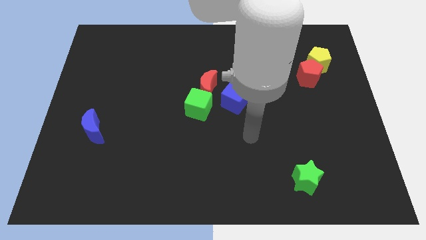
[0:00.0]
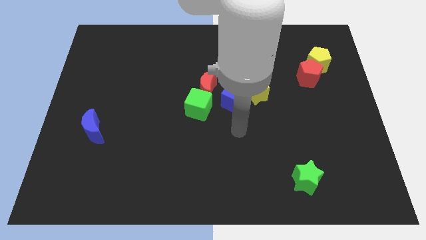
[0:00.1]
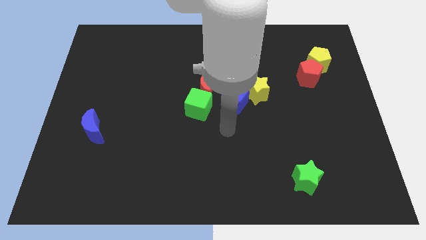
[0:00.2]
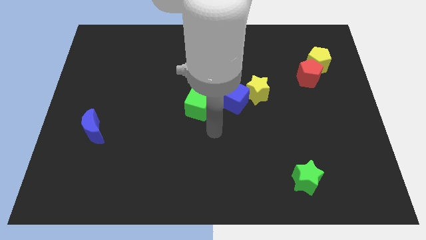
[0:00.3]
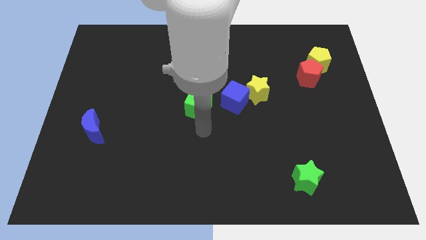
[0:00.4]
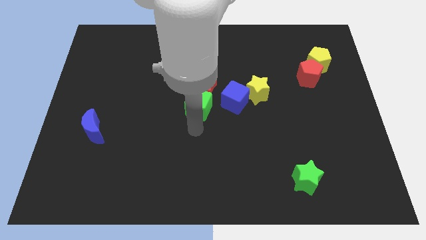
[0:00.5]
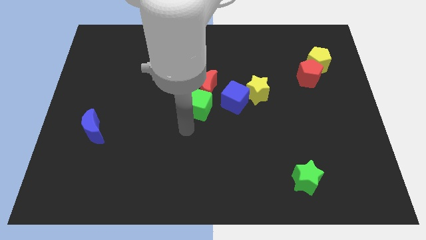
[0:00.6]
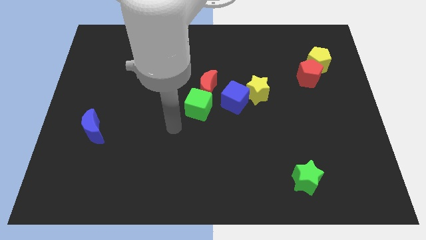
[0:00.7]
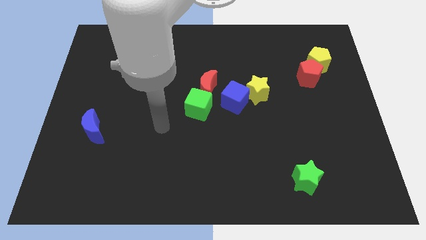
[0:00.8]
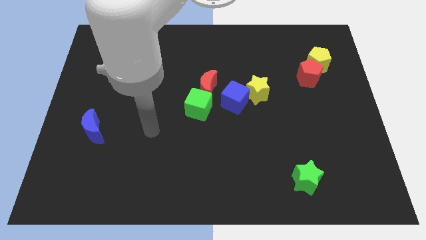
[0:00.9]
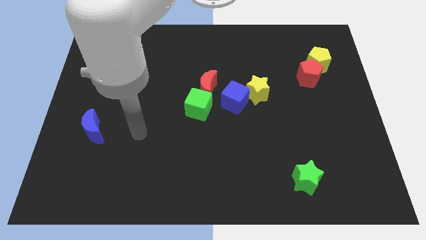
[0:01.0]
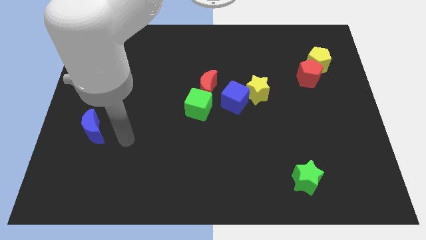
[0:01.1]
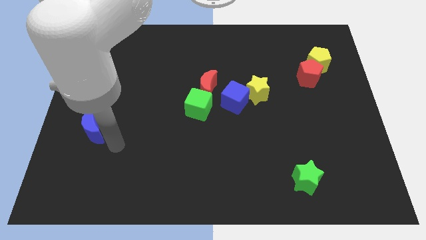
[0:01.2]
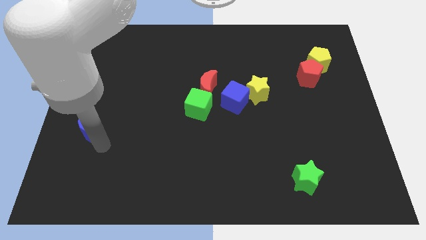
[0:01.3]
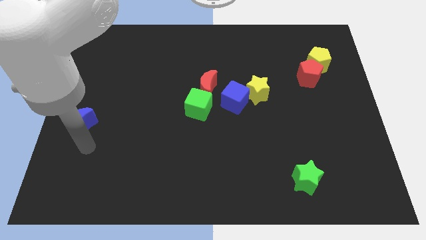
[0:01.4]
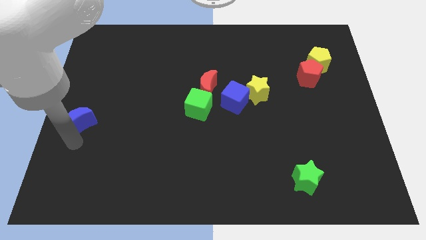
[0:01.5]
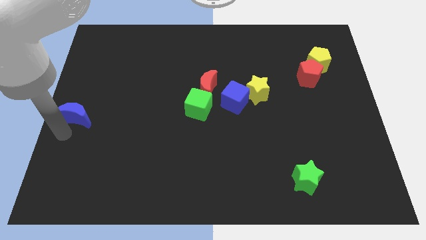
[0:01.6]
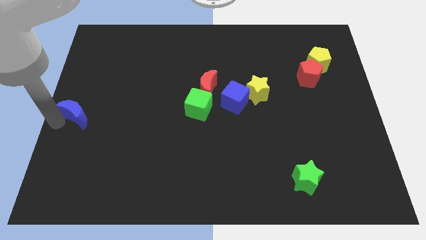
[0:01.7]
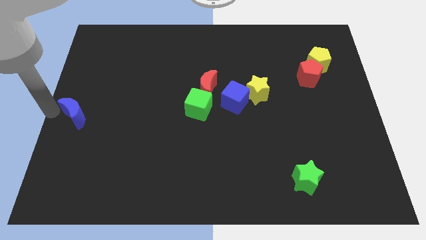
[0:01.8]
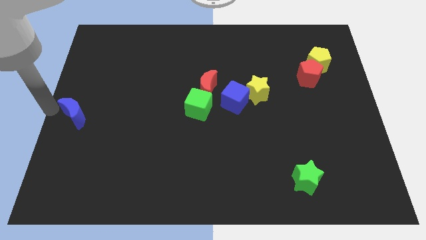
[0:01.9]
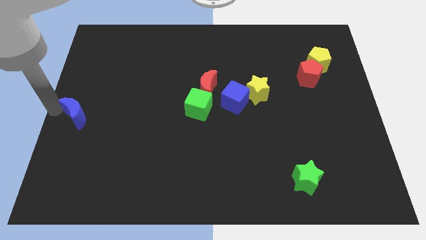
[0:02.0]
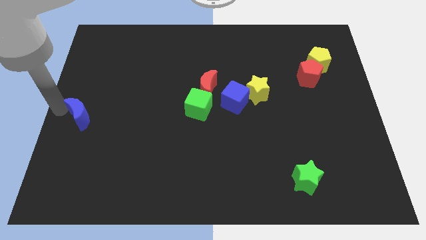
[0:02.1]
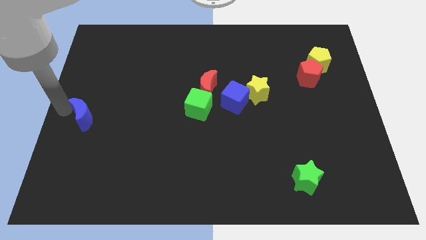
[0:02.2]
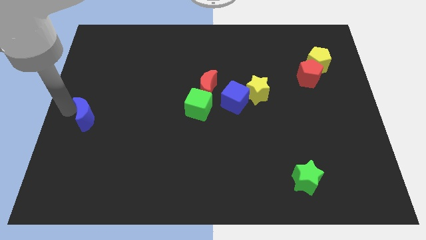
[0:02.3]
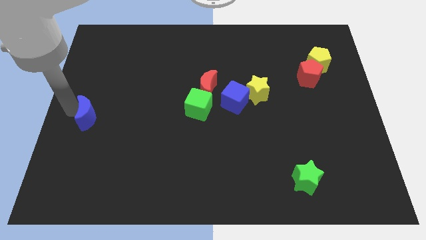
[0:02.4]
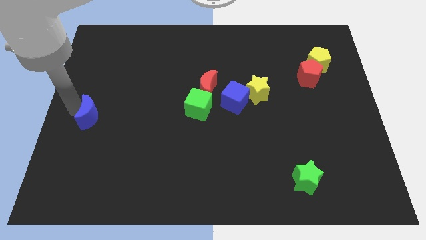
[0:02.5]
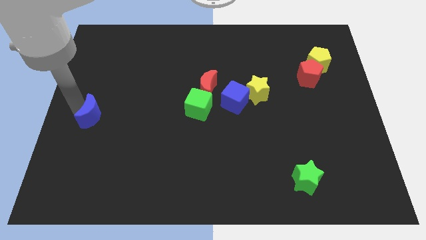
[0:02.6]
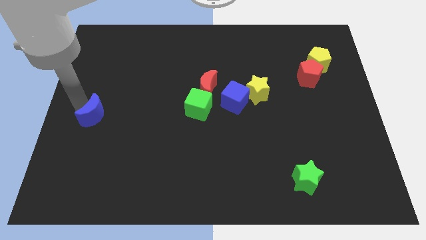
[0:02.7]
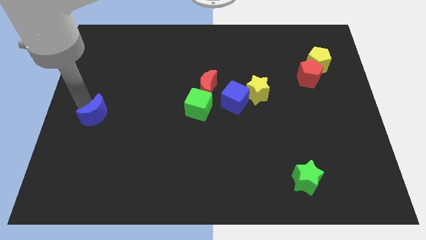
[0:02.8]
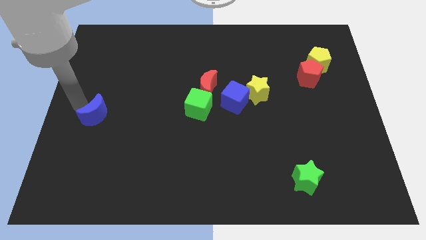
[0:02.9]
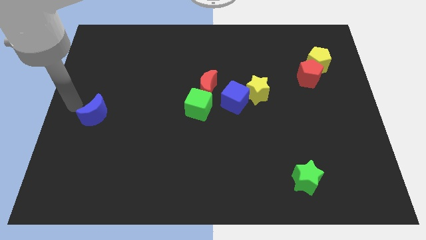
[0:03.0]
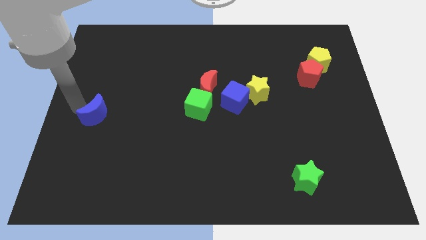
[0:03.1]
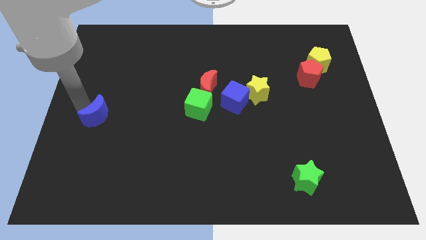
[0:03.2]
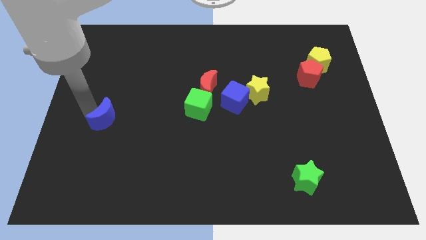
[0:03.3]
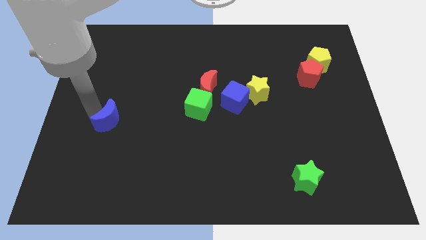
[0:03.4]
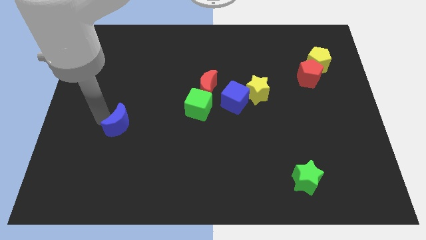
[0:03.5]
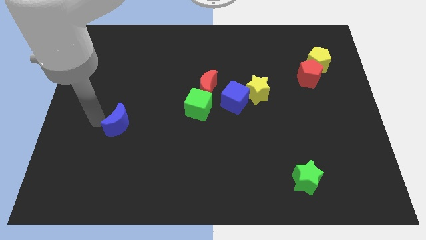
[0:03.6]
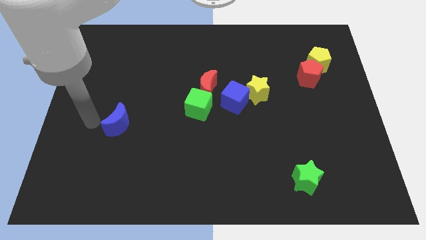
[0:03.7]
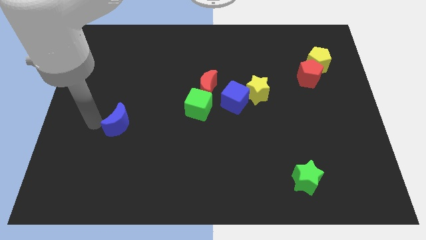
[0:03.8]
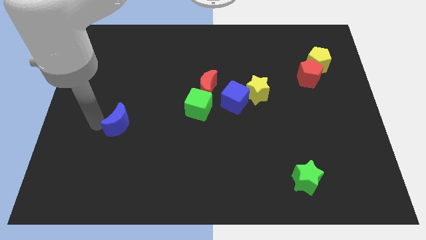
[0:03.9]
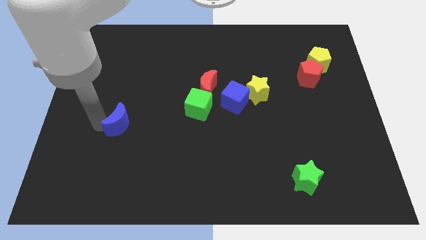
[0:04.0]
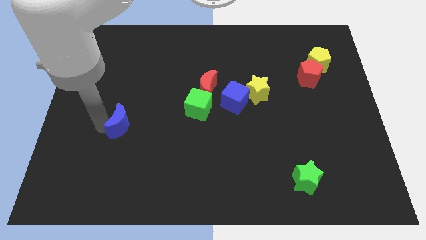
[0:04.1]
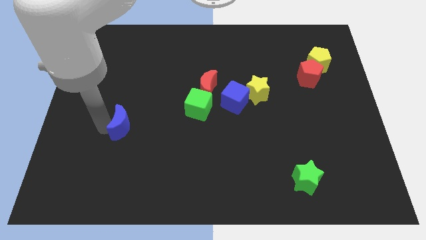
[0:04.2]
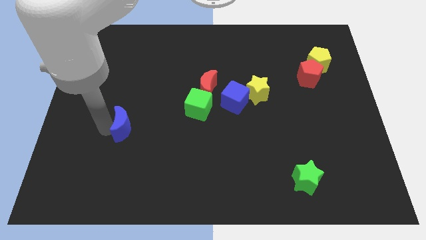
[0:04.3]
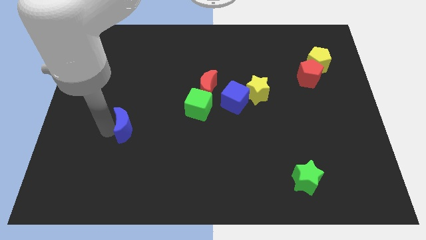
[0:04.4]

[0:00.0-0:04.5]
move the blue moon a little bit right

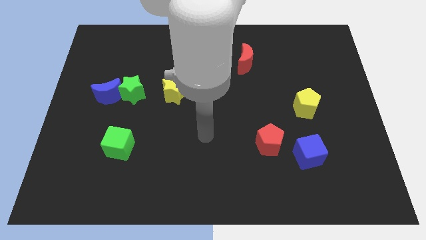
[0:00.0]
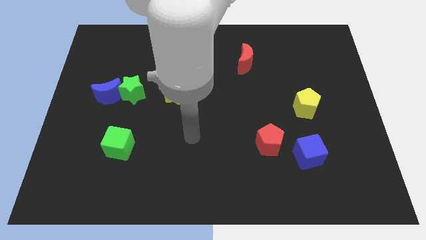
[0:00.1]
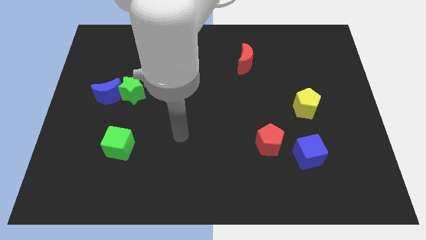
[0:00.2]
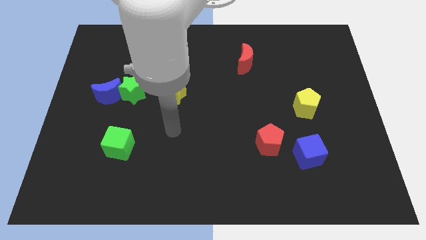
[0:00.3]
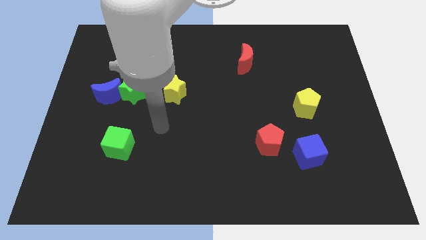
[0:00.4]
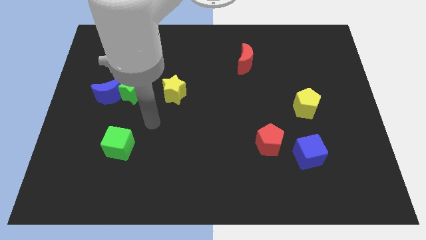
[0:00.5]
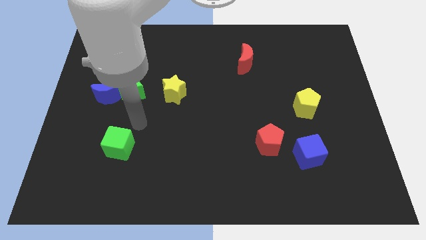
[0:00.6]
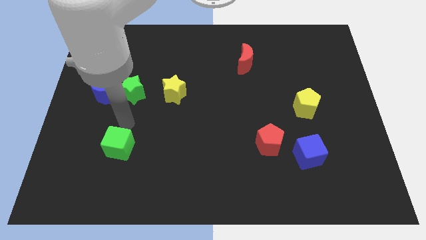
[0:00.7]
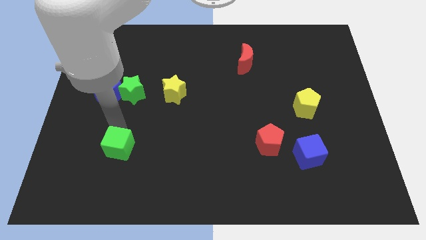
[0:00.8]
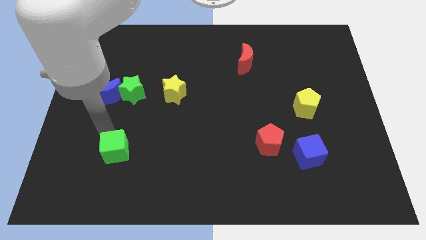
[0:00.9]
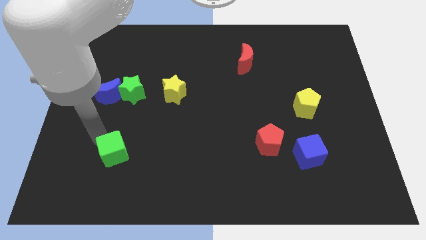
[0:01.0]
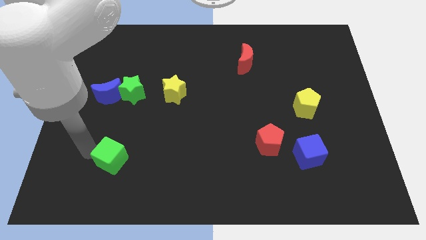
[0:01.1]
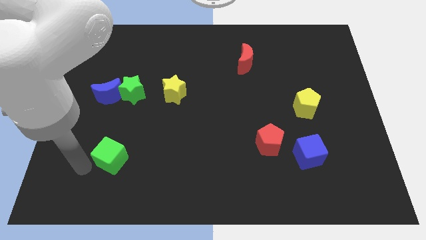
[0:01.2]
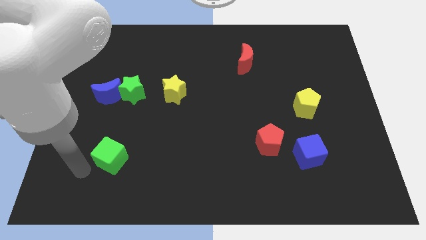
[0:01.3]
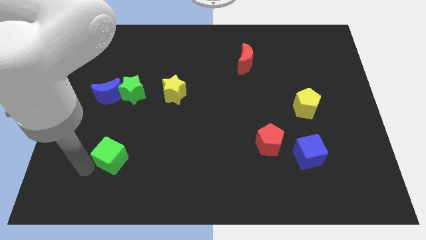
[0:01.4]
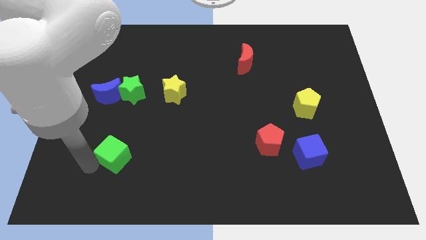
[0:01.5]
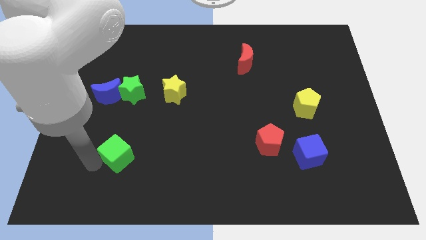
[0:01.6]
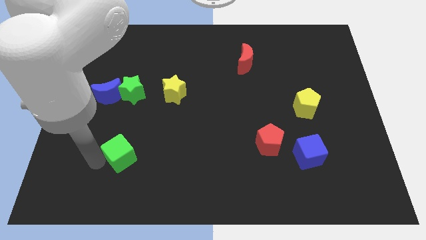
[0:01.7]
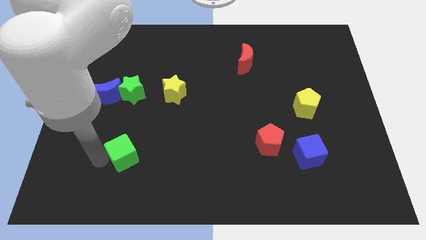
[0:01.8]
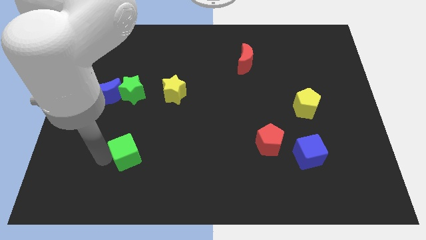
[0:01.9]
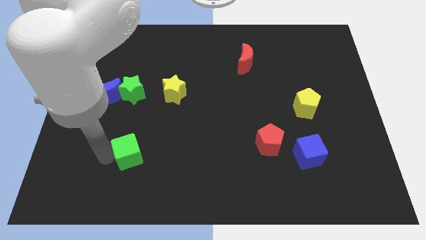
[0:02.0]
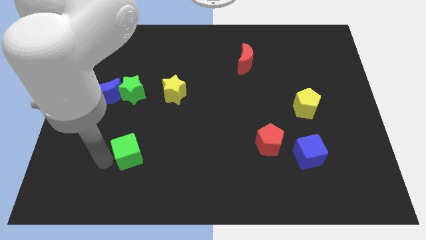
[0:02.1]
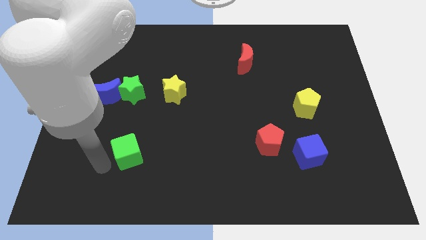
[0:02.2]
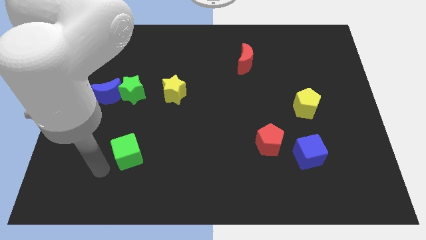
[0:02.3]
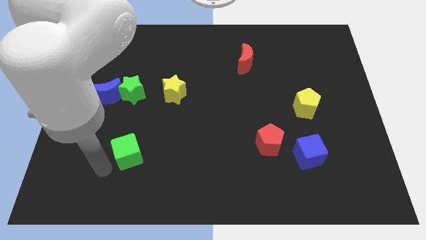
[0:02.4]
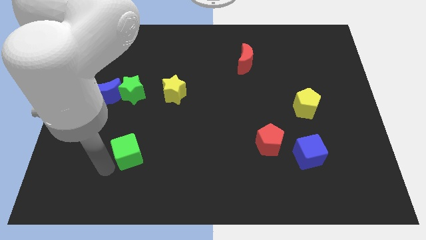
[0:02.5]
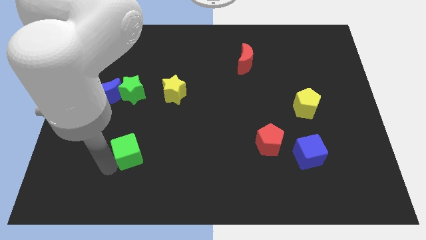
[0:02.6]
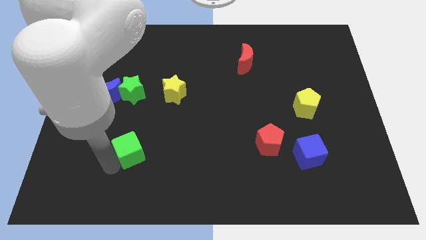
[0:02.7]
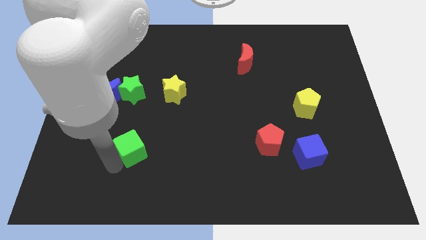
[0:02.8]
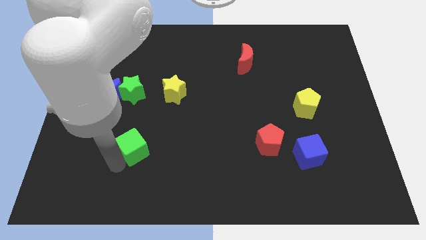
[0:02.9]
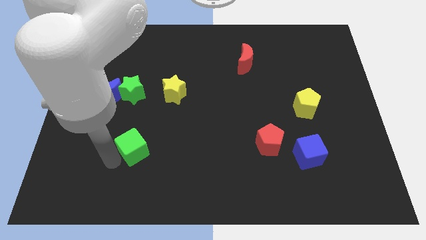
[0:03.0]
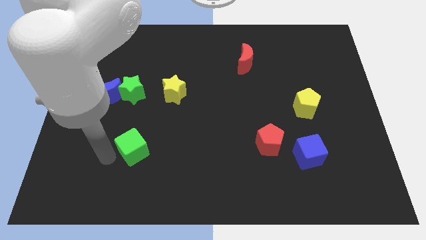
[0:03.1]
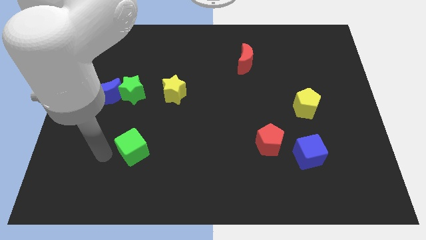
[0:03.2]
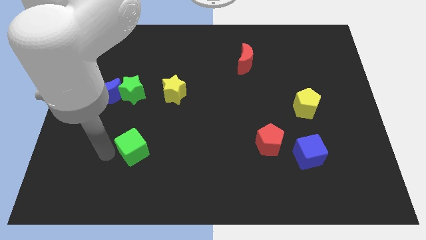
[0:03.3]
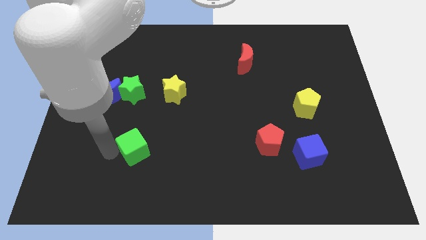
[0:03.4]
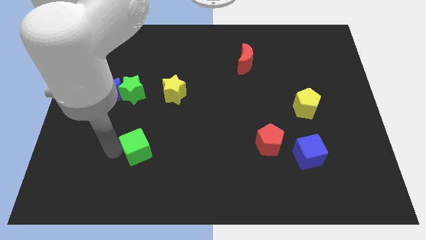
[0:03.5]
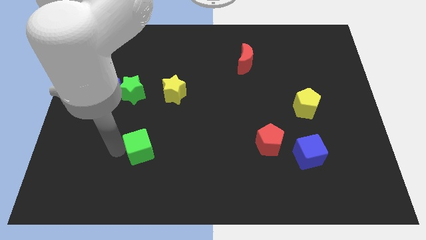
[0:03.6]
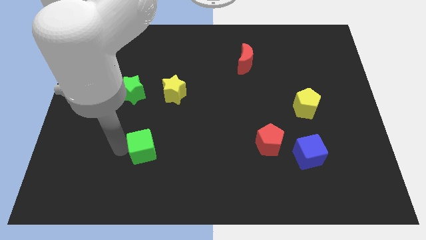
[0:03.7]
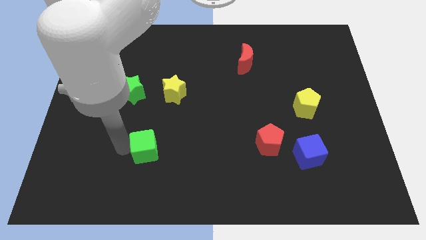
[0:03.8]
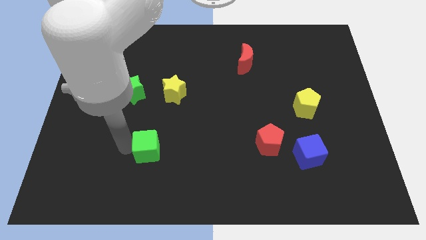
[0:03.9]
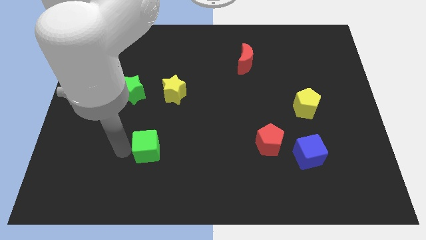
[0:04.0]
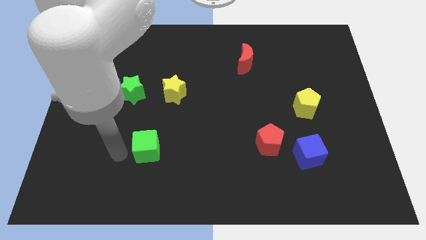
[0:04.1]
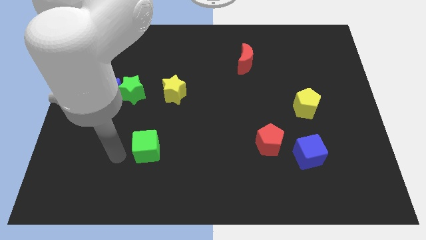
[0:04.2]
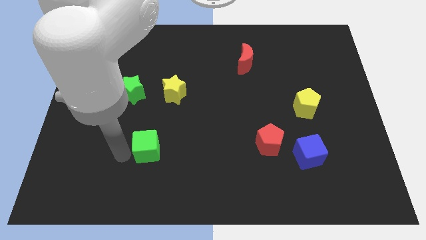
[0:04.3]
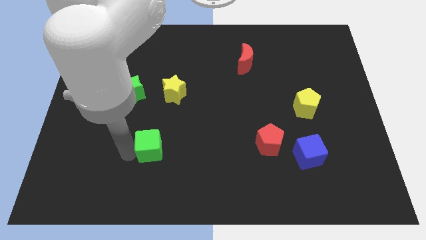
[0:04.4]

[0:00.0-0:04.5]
slide the green cube somewhat right
